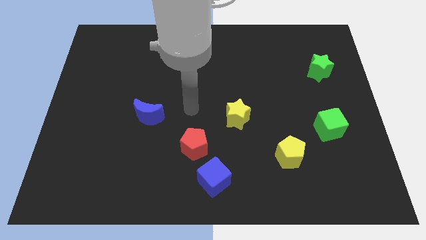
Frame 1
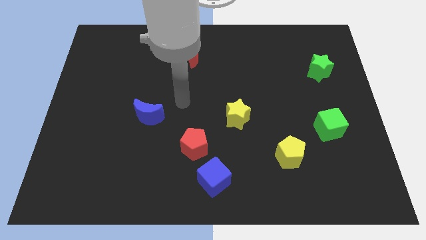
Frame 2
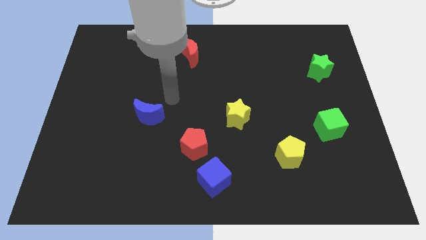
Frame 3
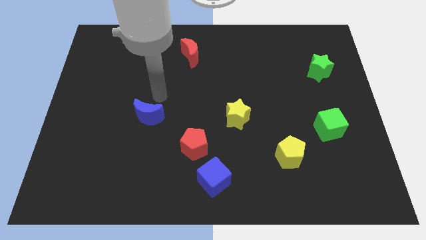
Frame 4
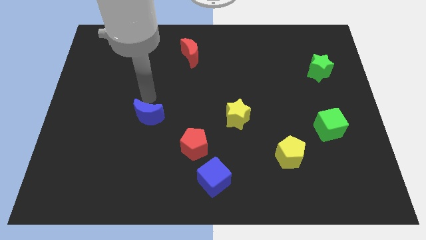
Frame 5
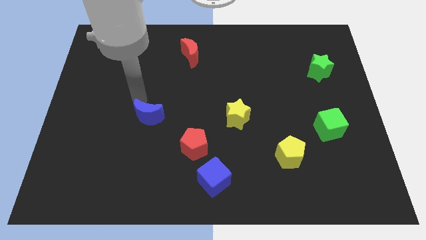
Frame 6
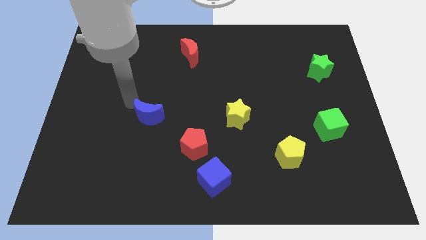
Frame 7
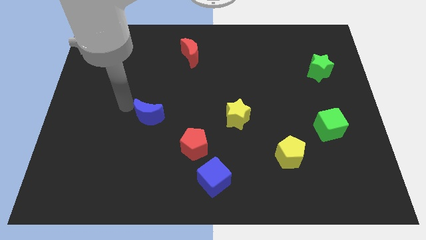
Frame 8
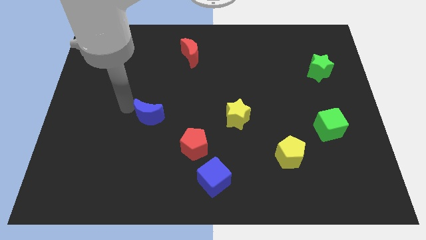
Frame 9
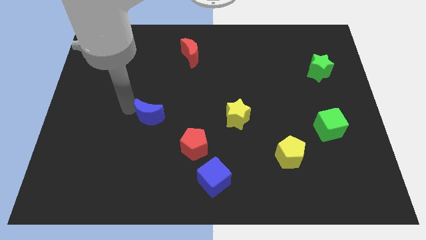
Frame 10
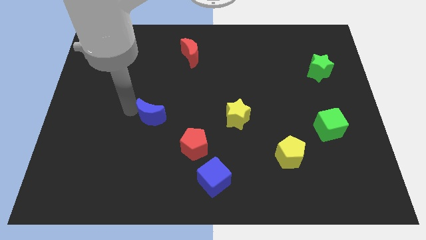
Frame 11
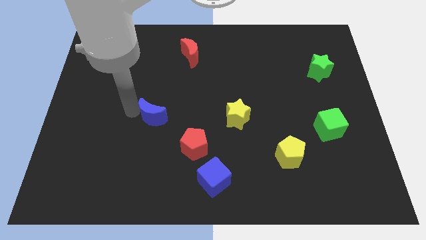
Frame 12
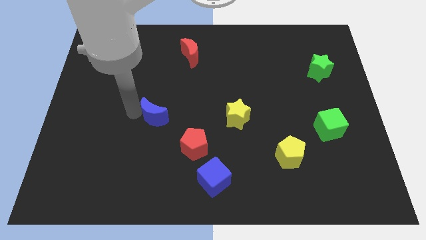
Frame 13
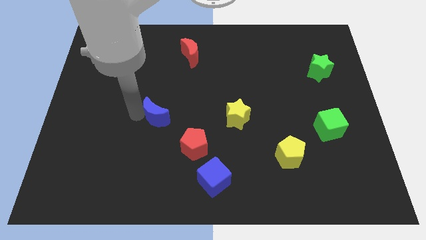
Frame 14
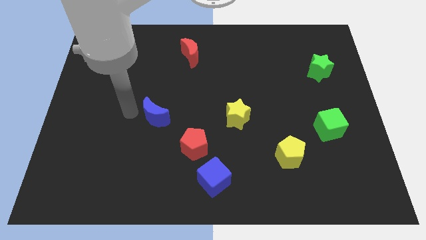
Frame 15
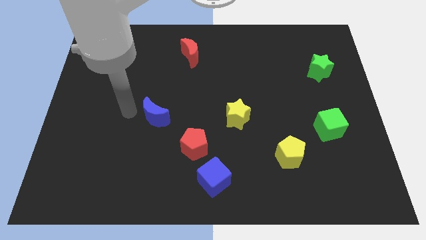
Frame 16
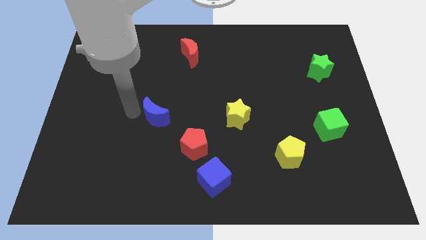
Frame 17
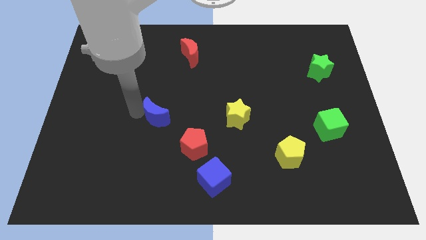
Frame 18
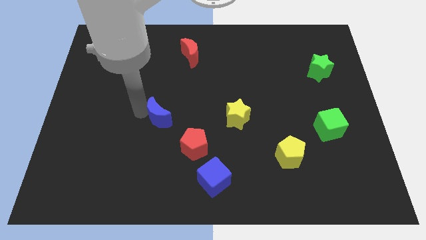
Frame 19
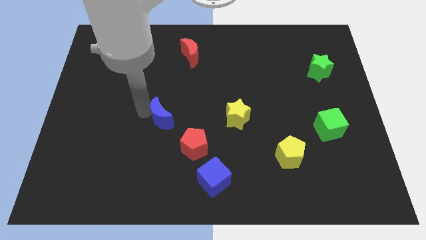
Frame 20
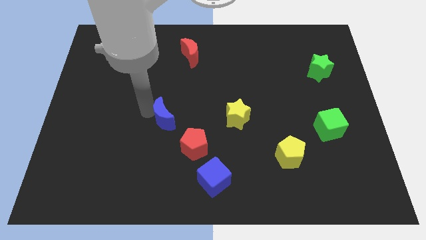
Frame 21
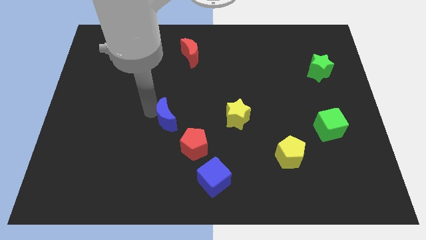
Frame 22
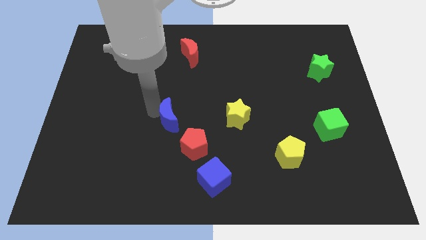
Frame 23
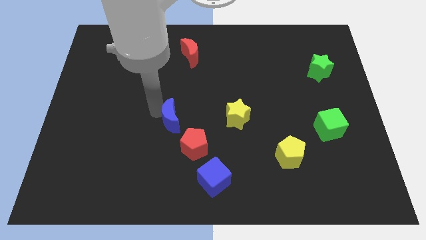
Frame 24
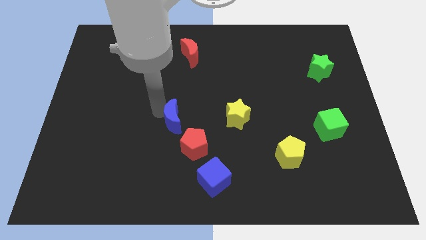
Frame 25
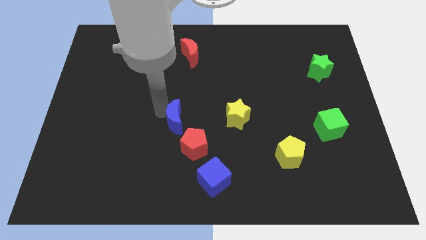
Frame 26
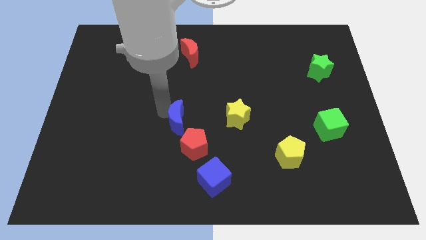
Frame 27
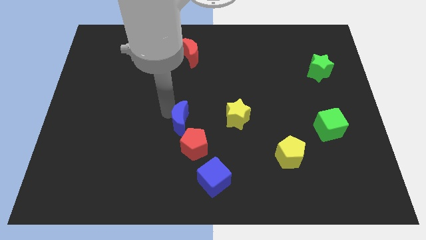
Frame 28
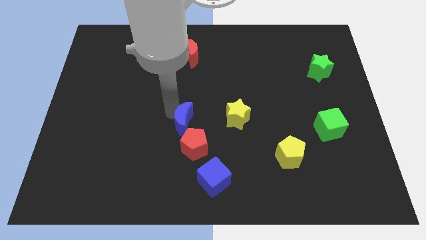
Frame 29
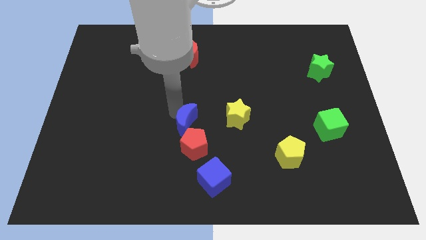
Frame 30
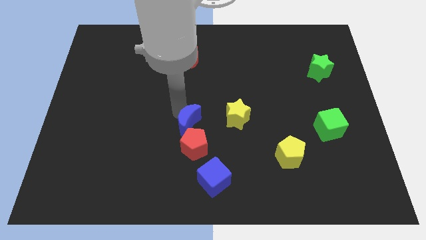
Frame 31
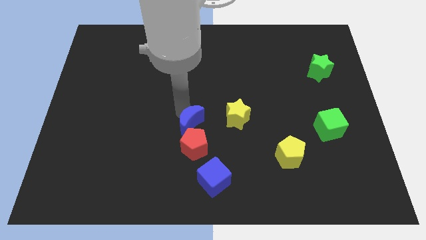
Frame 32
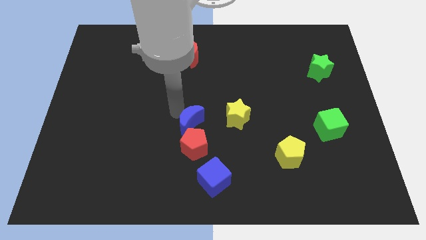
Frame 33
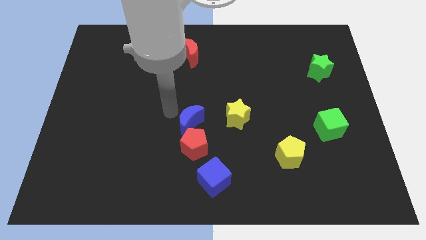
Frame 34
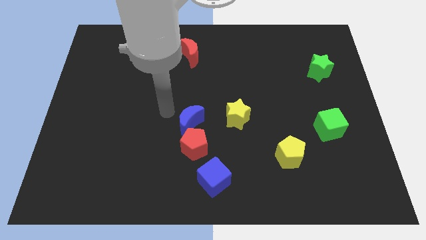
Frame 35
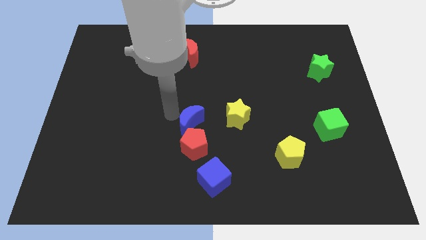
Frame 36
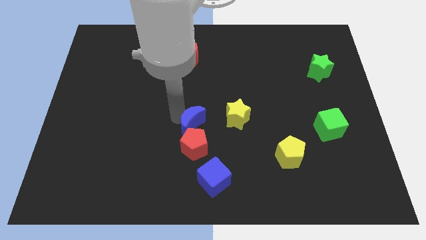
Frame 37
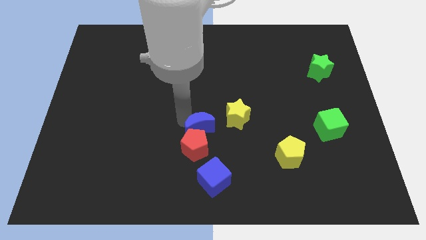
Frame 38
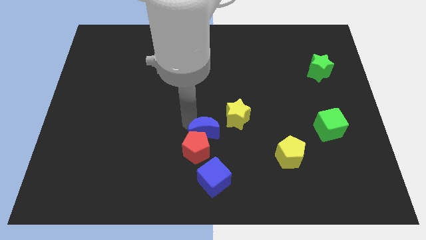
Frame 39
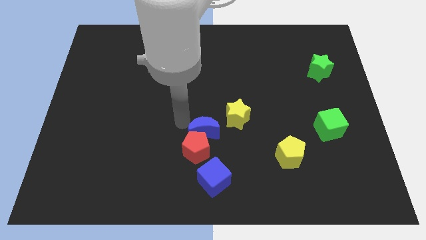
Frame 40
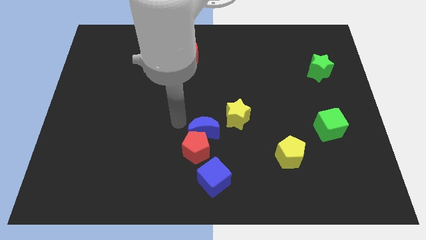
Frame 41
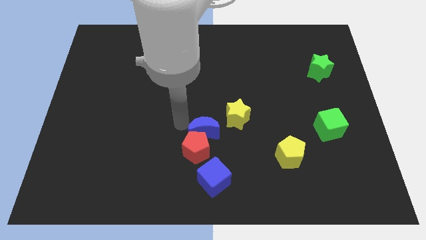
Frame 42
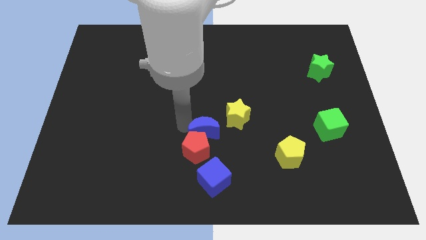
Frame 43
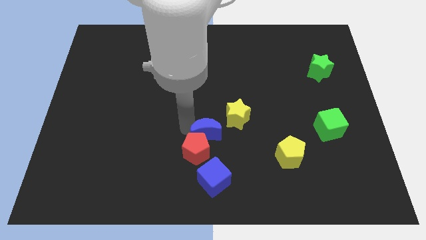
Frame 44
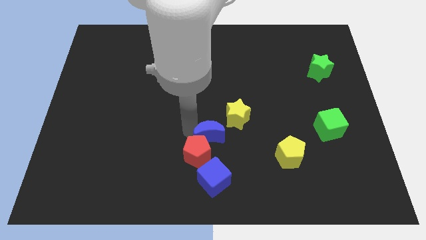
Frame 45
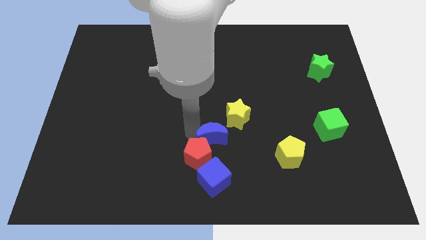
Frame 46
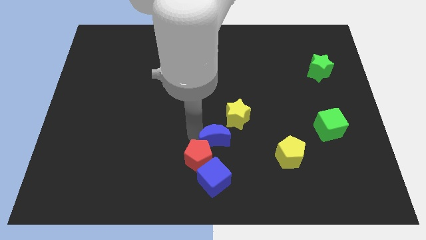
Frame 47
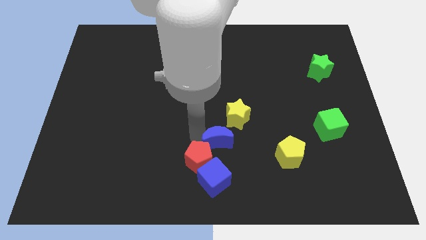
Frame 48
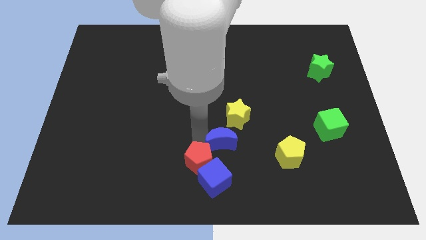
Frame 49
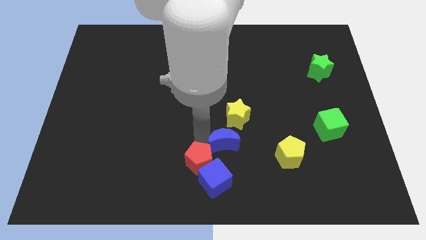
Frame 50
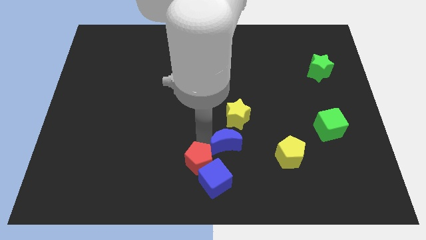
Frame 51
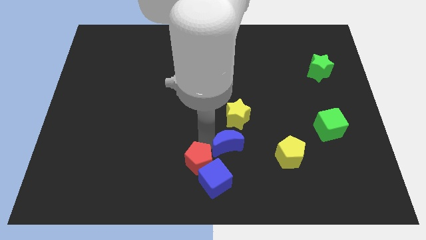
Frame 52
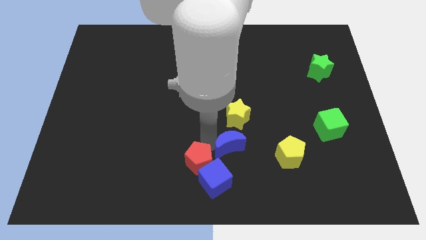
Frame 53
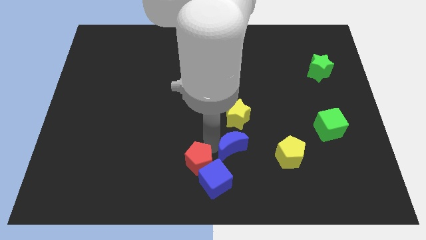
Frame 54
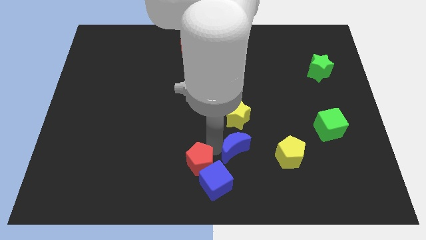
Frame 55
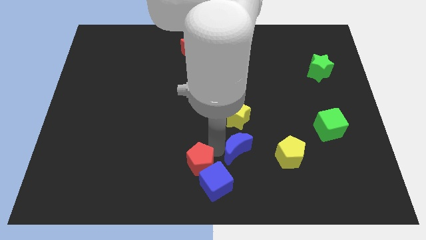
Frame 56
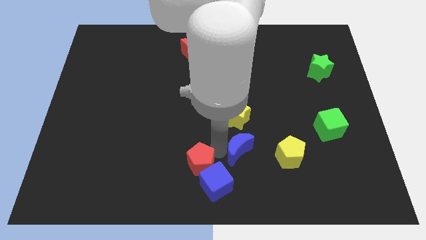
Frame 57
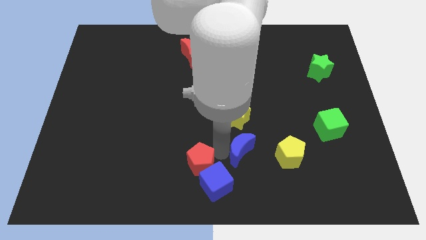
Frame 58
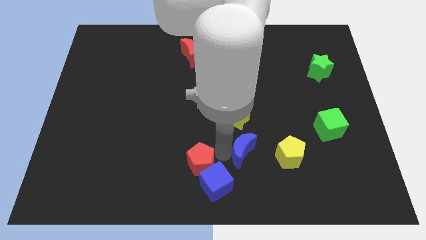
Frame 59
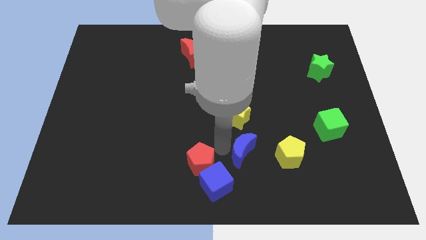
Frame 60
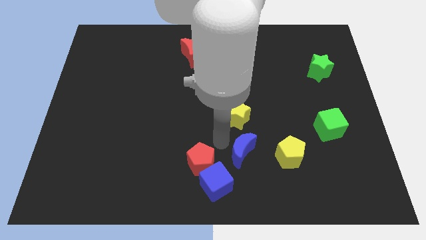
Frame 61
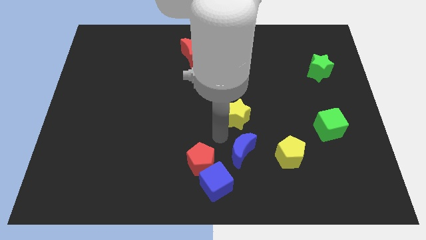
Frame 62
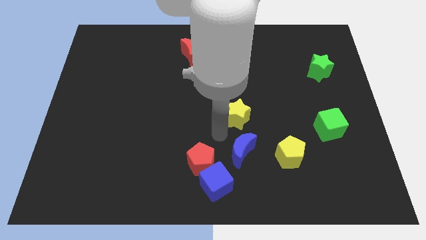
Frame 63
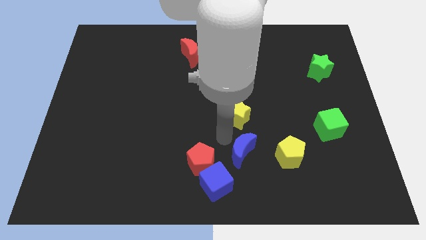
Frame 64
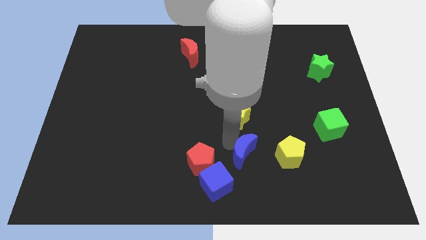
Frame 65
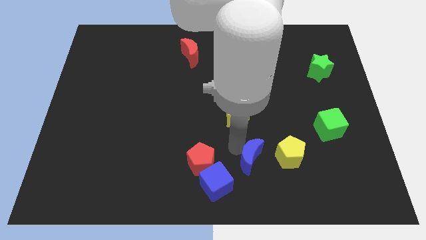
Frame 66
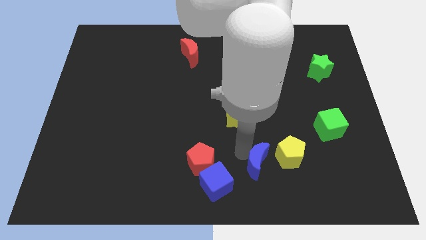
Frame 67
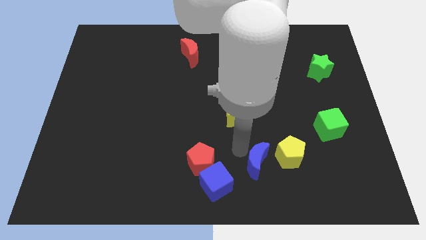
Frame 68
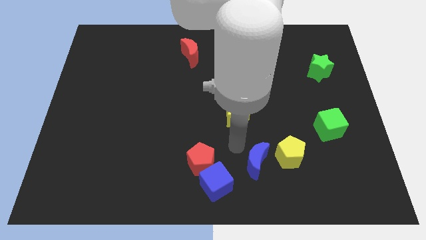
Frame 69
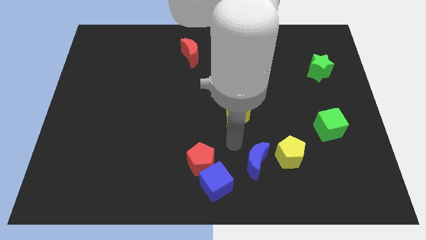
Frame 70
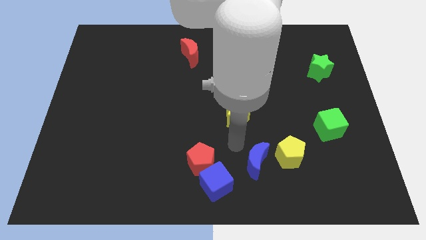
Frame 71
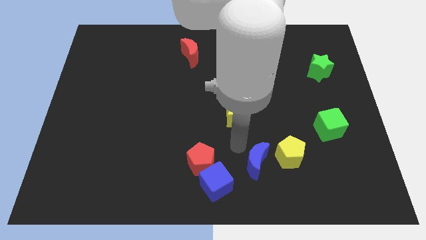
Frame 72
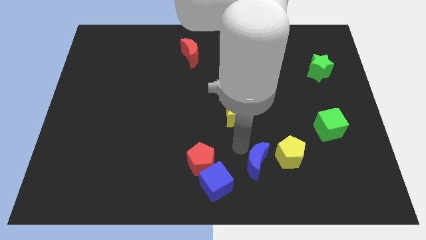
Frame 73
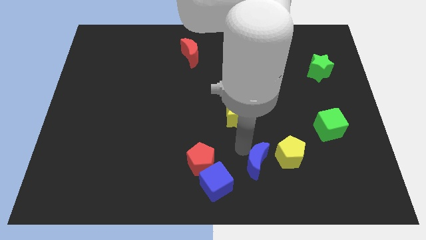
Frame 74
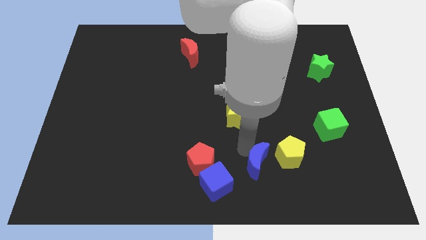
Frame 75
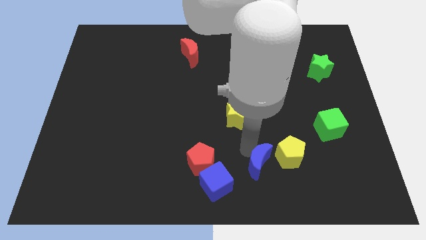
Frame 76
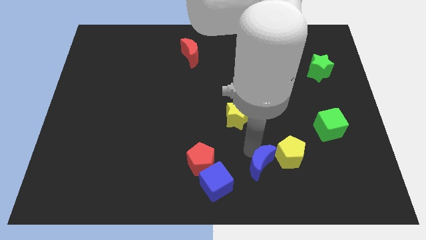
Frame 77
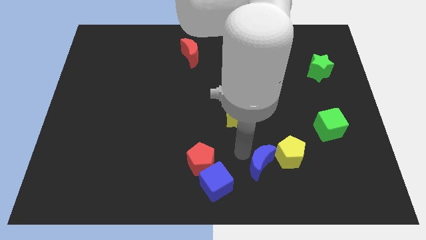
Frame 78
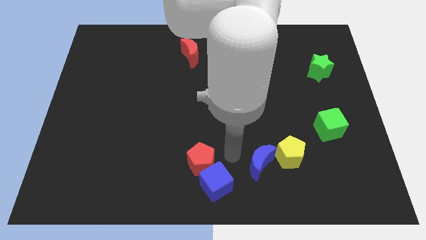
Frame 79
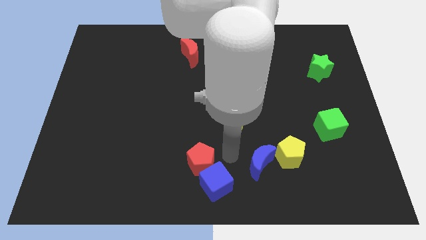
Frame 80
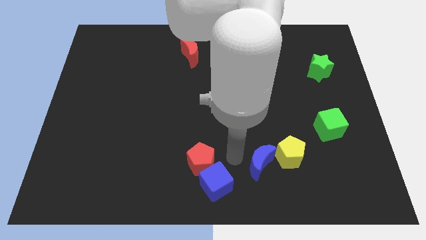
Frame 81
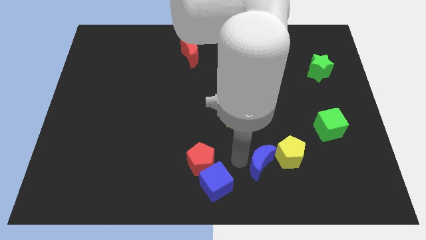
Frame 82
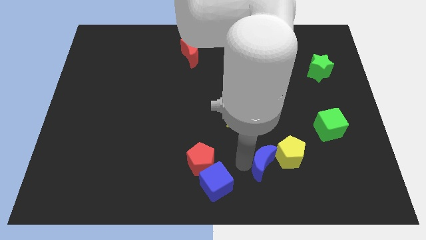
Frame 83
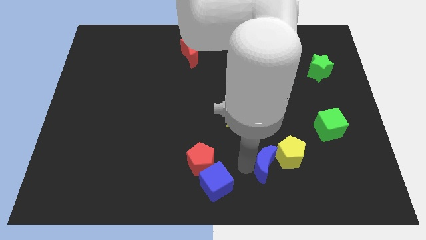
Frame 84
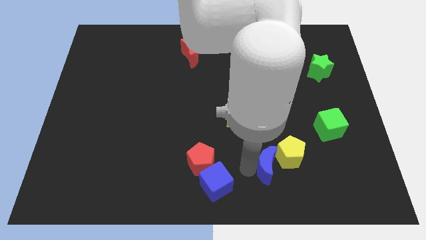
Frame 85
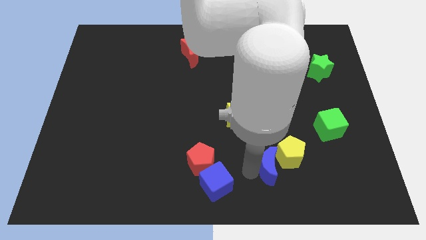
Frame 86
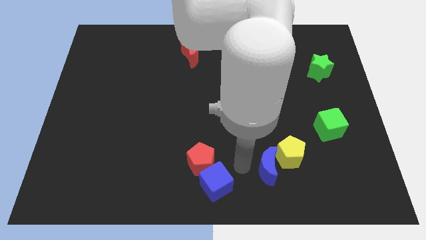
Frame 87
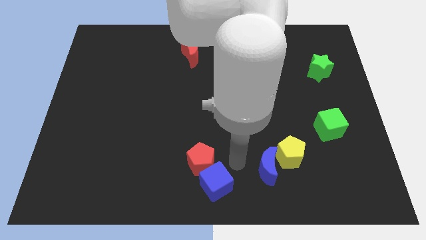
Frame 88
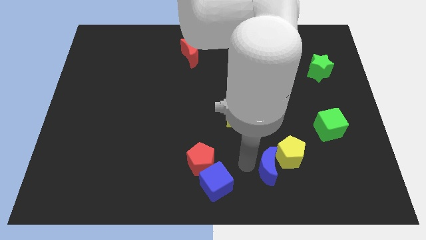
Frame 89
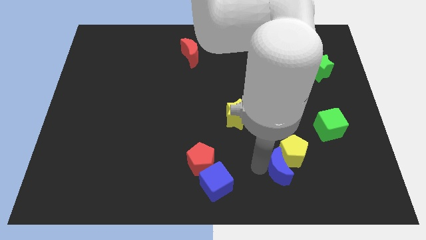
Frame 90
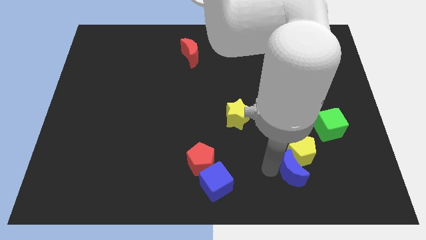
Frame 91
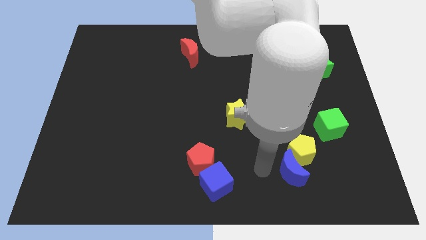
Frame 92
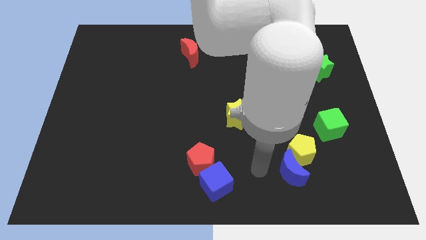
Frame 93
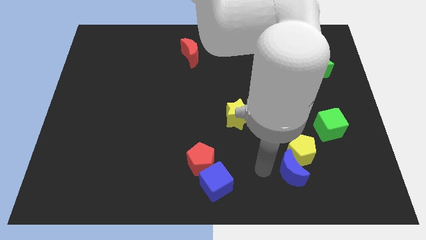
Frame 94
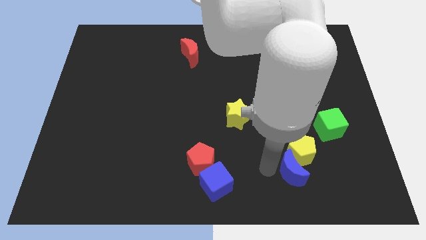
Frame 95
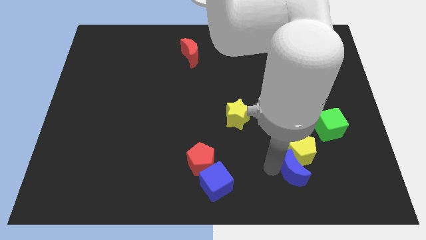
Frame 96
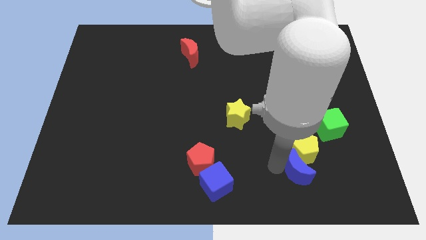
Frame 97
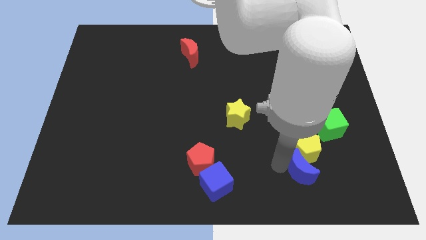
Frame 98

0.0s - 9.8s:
move the blue moon diagonally down and to the right of the yellow pentagon
